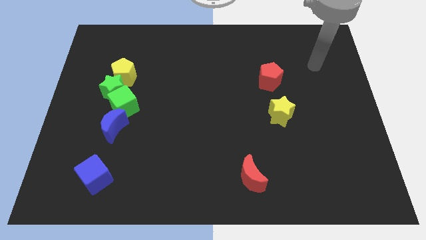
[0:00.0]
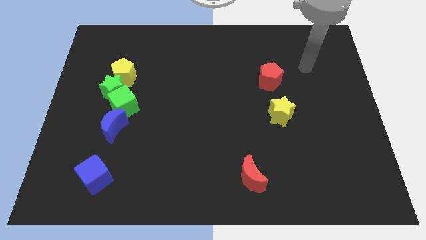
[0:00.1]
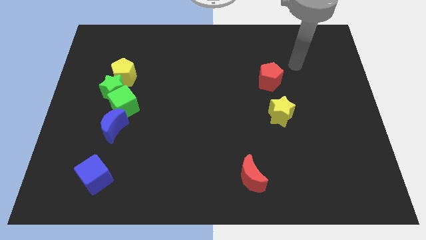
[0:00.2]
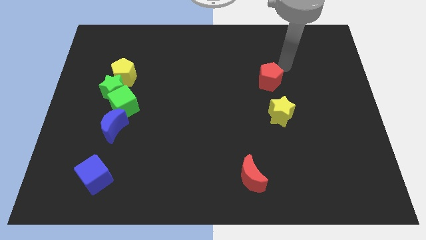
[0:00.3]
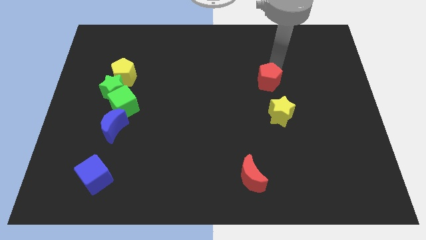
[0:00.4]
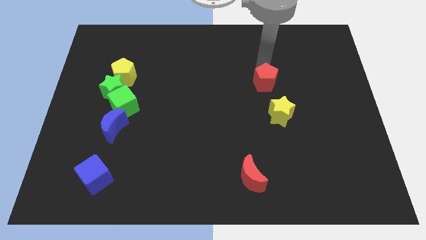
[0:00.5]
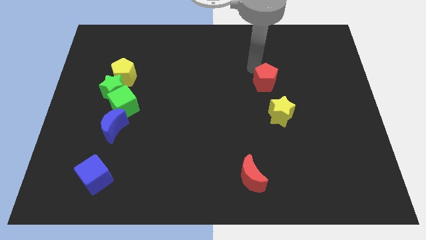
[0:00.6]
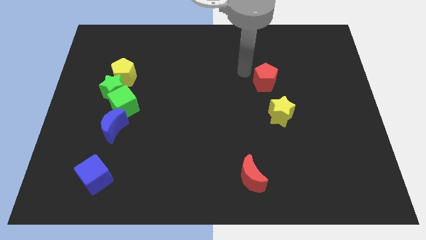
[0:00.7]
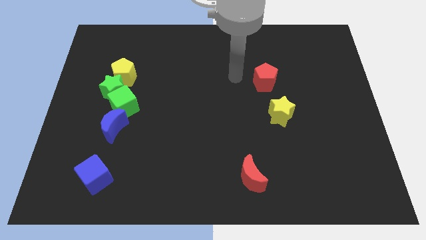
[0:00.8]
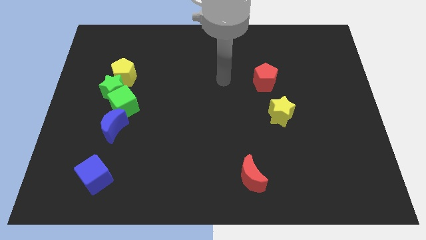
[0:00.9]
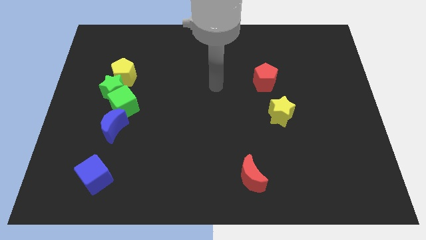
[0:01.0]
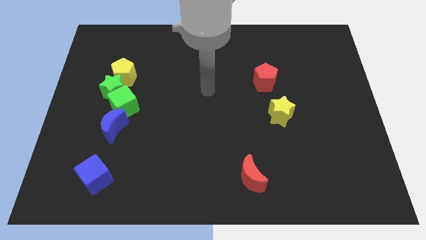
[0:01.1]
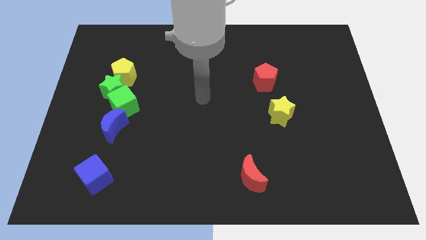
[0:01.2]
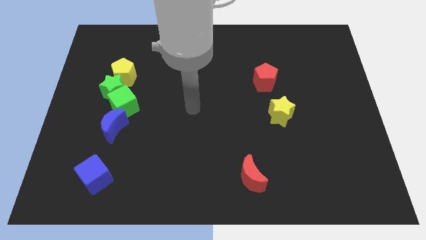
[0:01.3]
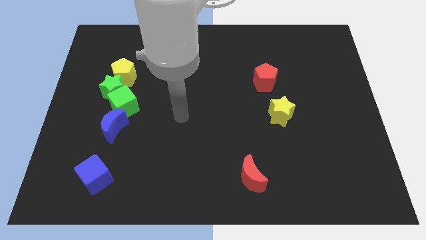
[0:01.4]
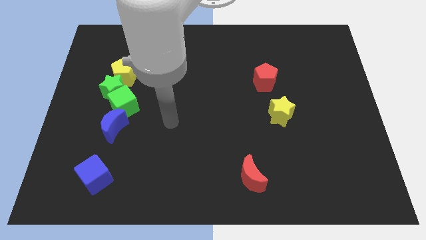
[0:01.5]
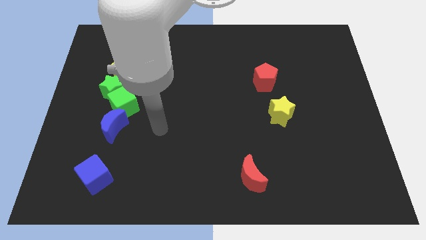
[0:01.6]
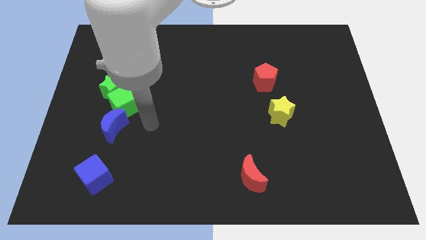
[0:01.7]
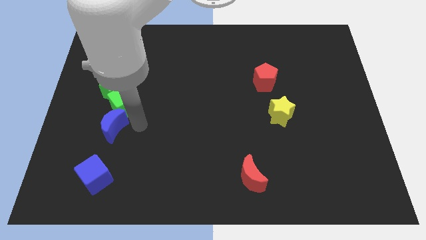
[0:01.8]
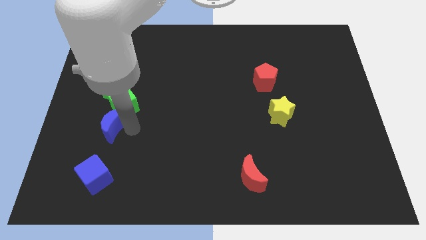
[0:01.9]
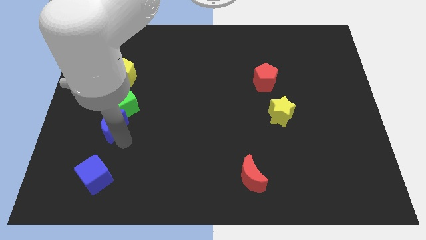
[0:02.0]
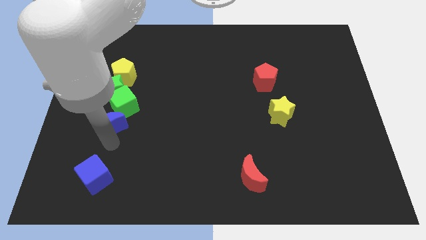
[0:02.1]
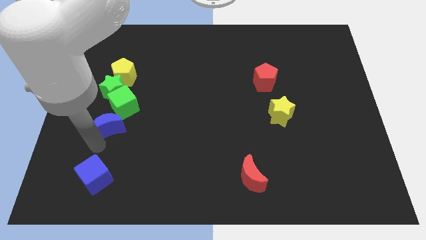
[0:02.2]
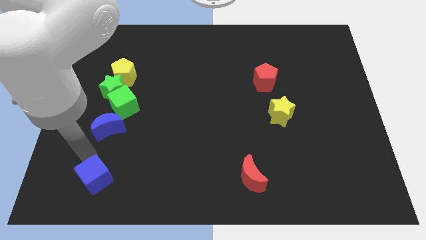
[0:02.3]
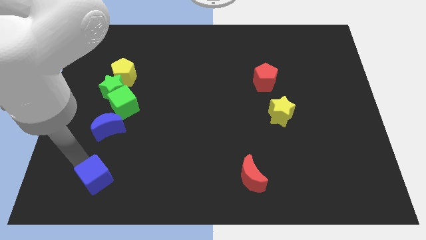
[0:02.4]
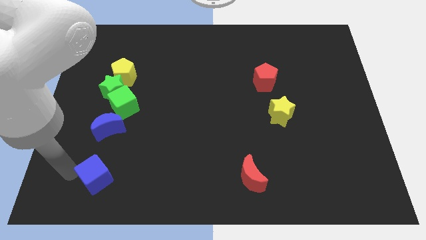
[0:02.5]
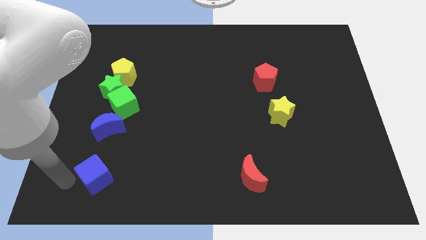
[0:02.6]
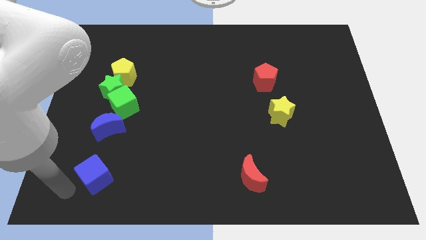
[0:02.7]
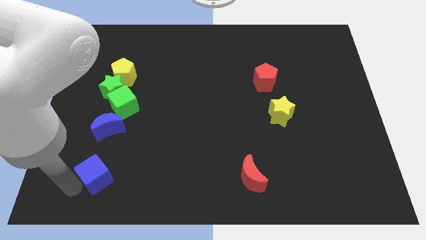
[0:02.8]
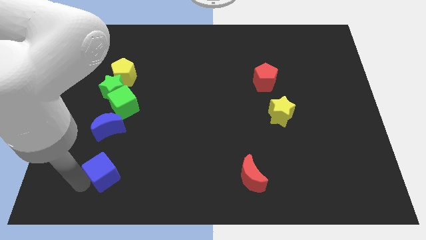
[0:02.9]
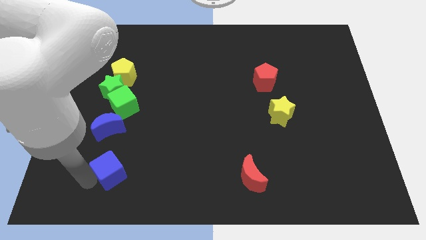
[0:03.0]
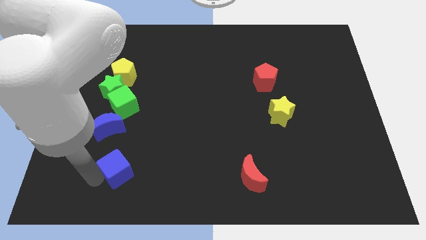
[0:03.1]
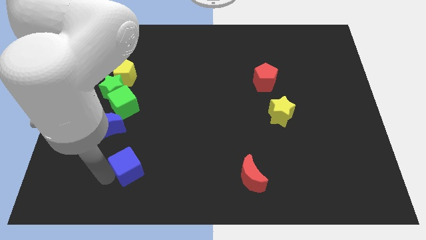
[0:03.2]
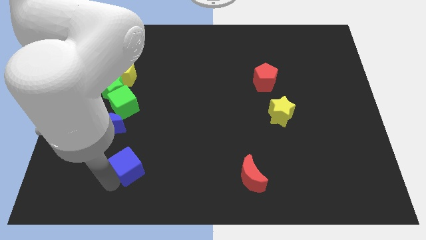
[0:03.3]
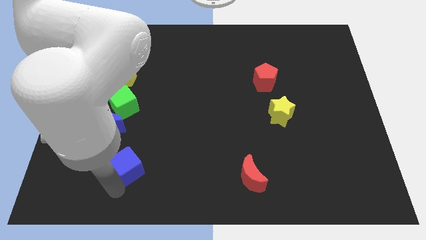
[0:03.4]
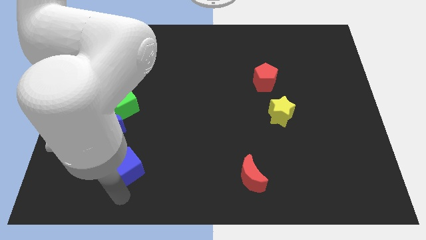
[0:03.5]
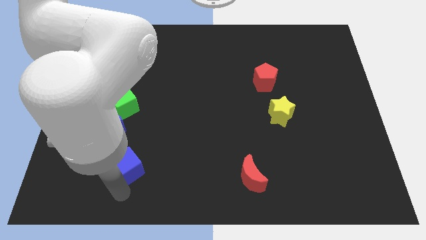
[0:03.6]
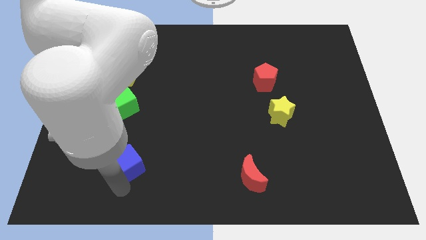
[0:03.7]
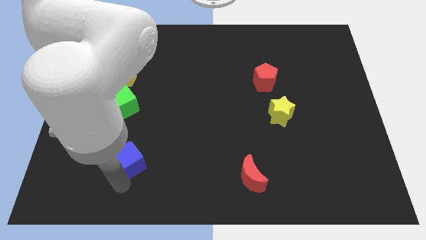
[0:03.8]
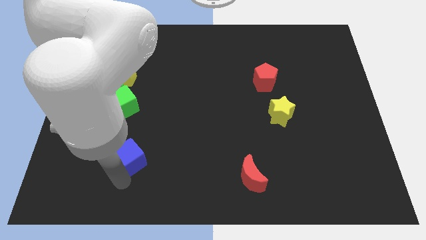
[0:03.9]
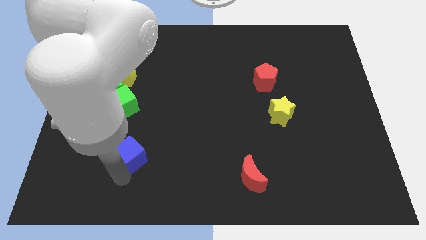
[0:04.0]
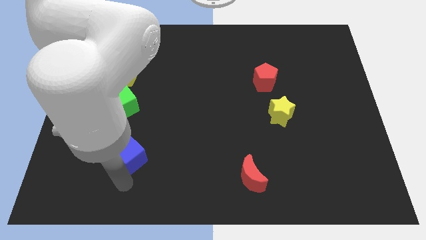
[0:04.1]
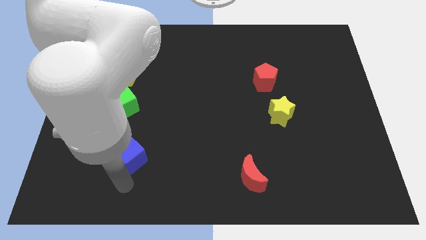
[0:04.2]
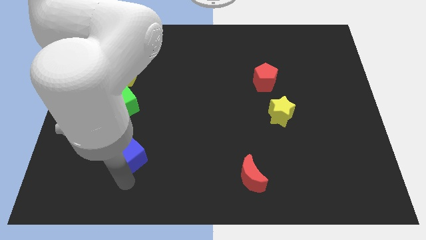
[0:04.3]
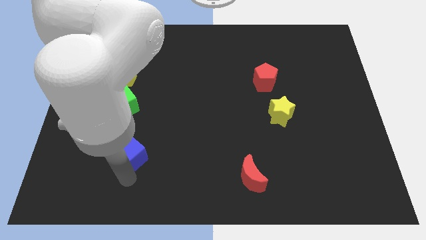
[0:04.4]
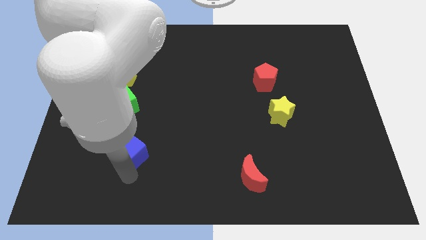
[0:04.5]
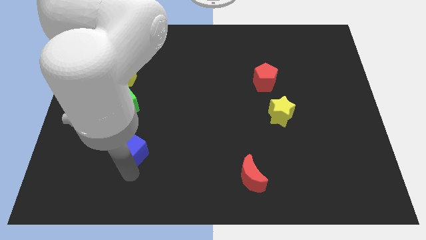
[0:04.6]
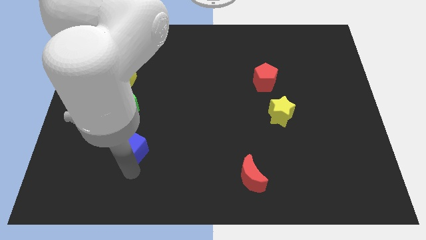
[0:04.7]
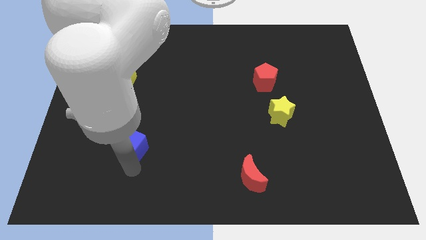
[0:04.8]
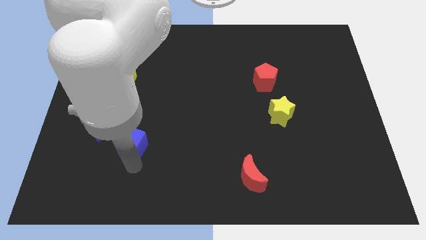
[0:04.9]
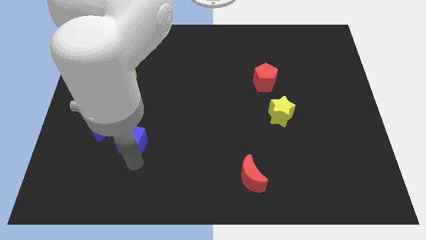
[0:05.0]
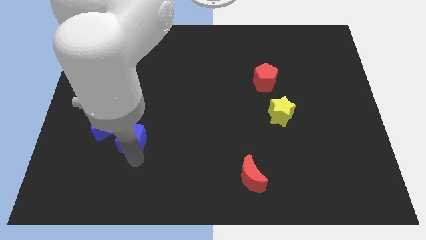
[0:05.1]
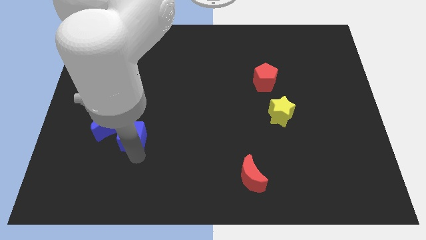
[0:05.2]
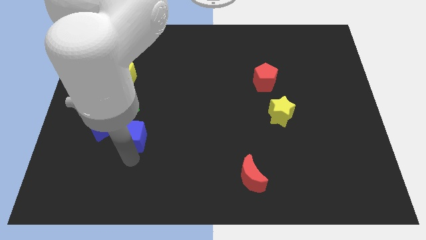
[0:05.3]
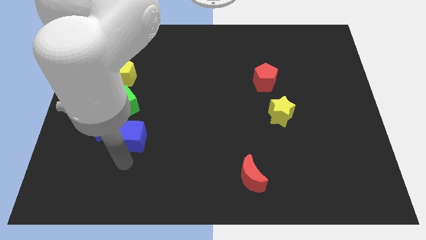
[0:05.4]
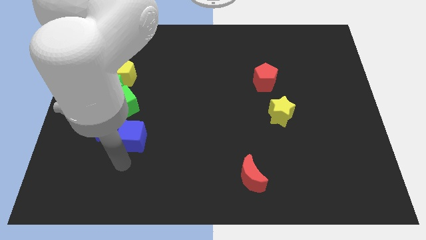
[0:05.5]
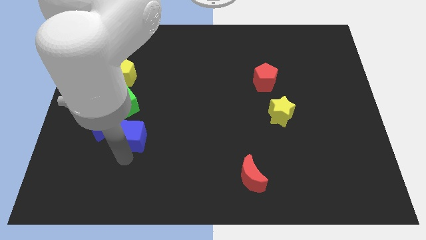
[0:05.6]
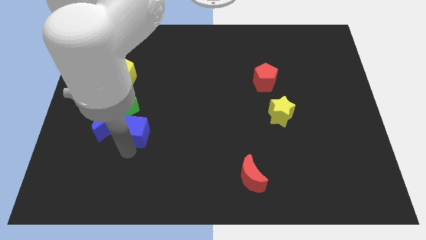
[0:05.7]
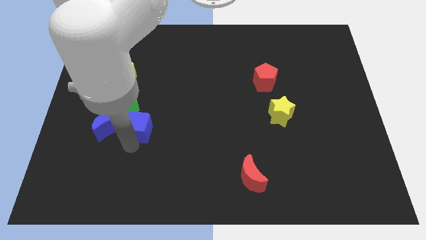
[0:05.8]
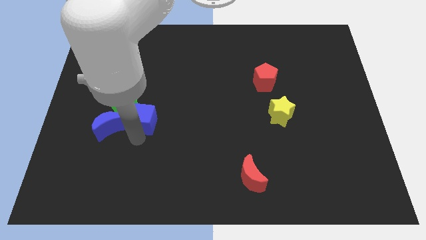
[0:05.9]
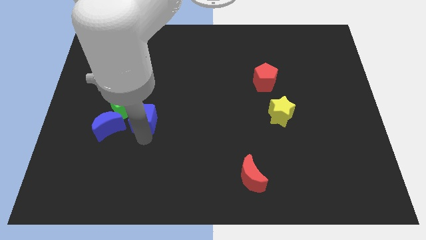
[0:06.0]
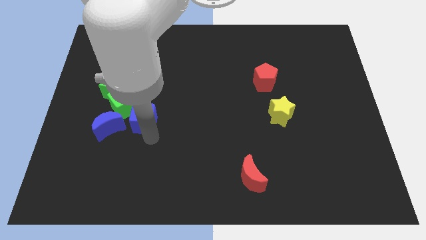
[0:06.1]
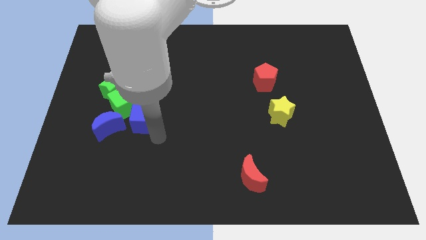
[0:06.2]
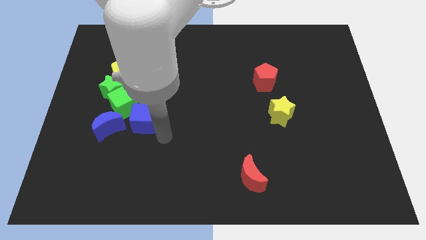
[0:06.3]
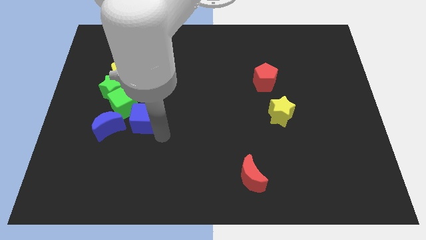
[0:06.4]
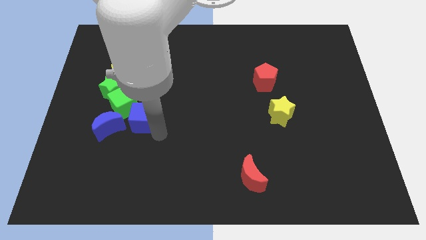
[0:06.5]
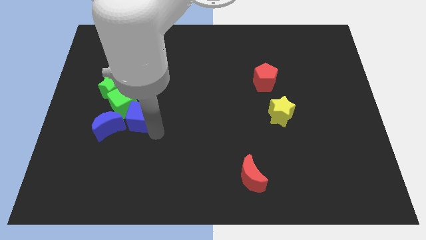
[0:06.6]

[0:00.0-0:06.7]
push the blue cube close to the green cube

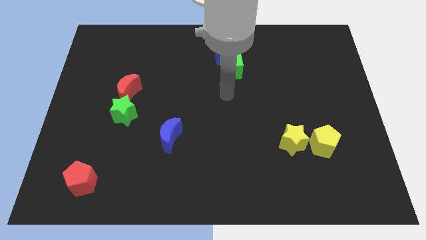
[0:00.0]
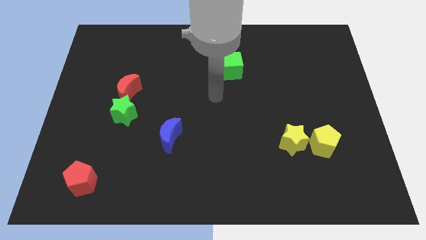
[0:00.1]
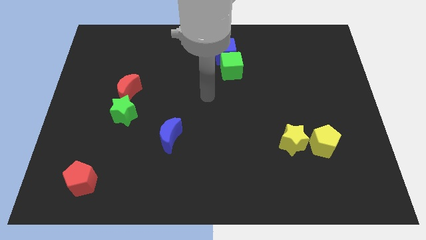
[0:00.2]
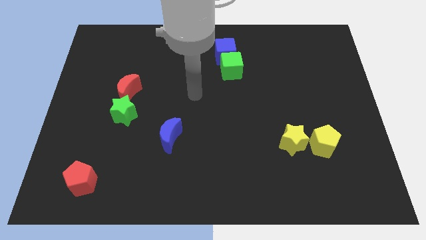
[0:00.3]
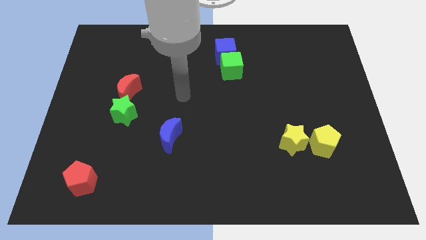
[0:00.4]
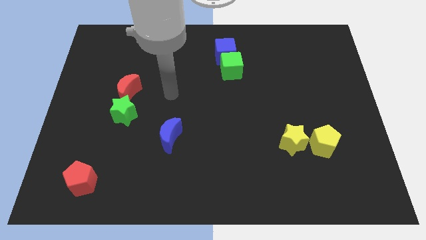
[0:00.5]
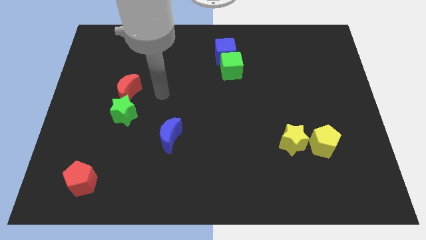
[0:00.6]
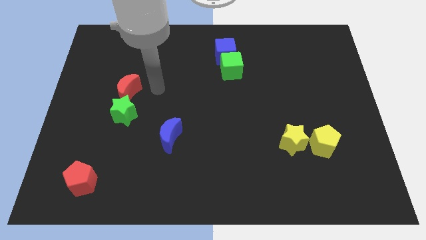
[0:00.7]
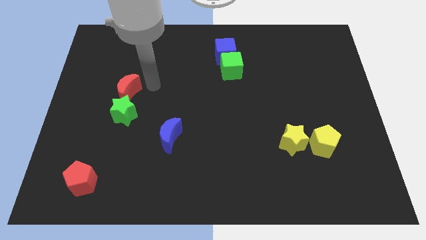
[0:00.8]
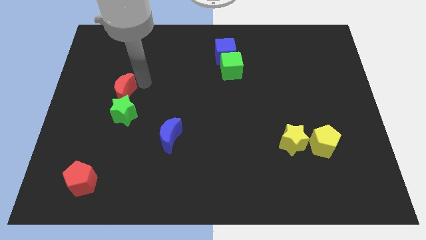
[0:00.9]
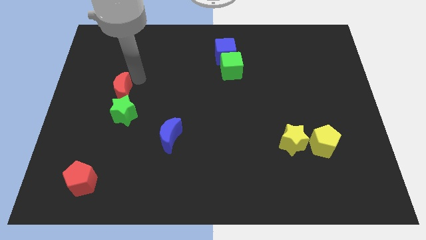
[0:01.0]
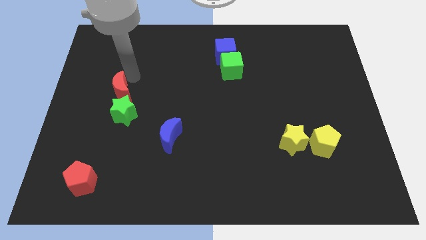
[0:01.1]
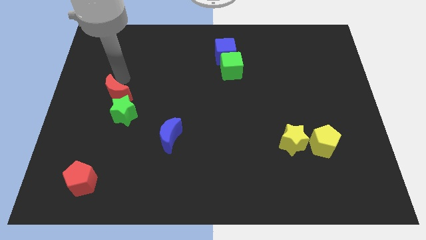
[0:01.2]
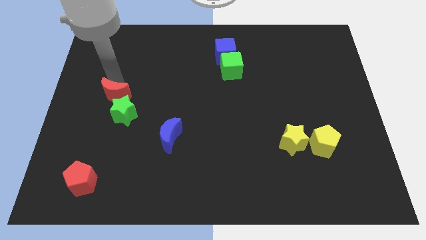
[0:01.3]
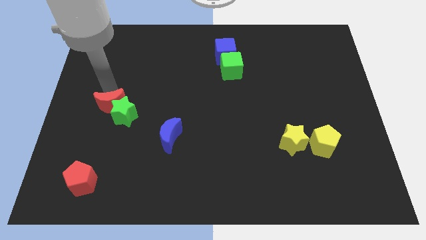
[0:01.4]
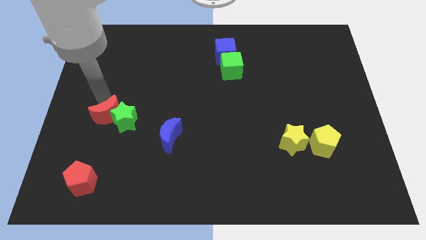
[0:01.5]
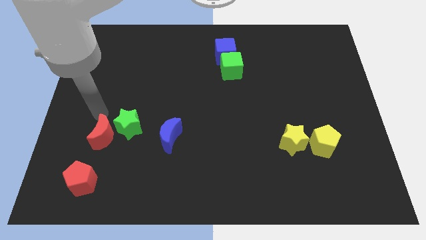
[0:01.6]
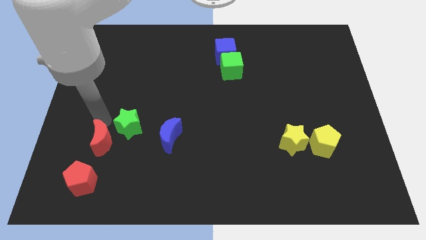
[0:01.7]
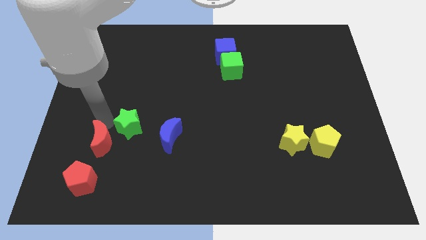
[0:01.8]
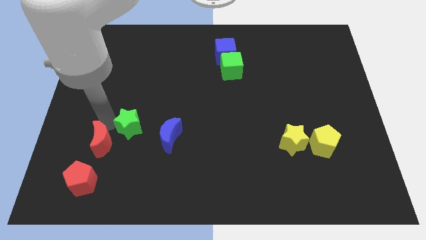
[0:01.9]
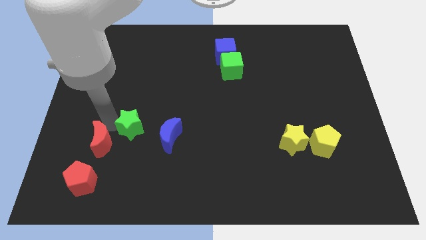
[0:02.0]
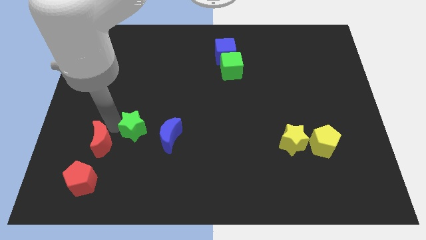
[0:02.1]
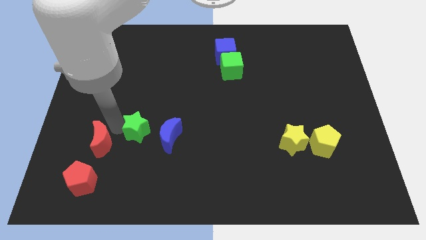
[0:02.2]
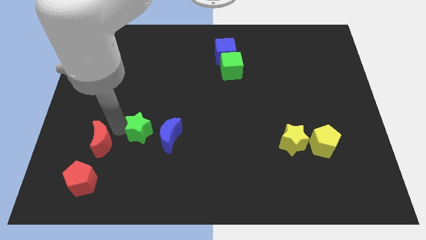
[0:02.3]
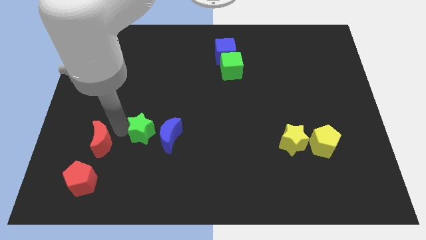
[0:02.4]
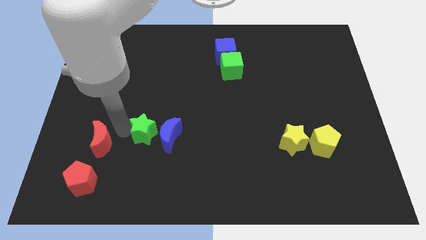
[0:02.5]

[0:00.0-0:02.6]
put the green star towards the blue moon
